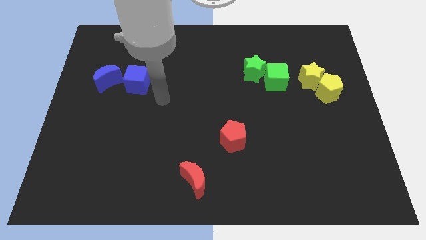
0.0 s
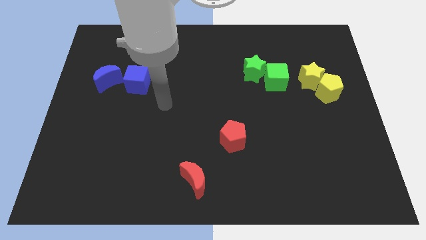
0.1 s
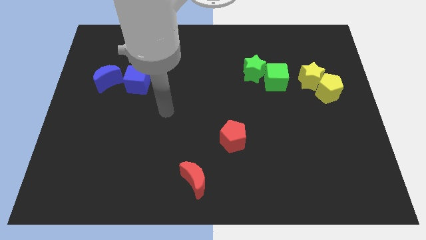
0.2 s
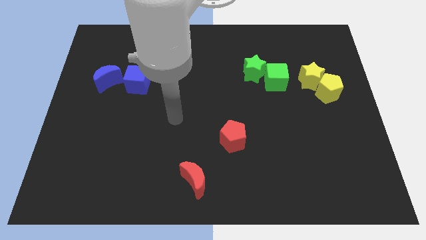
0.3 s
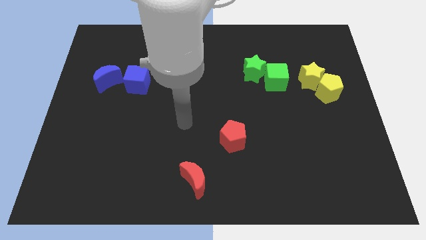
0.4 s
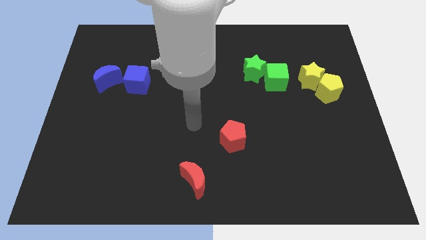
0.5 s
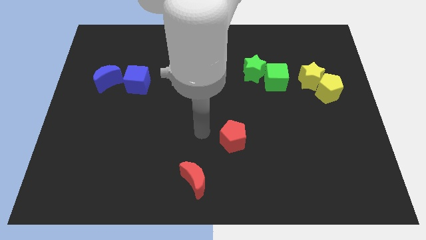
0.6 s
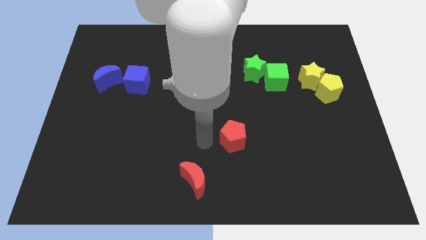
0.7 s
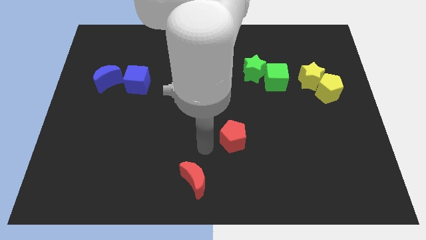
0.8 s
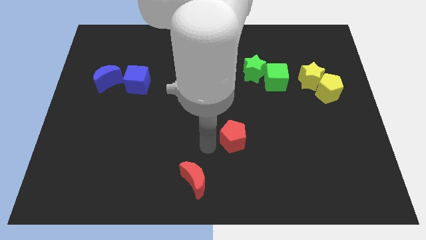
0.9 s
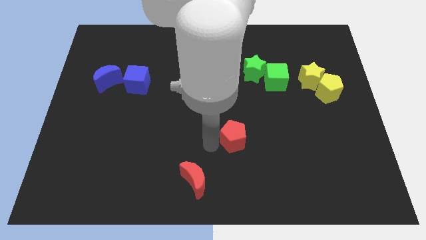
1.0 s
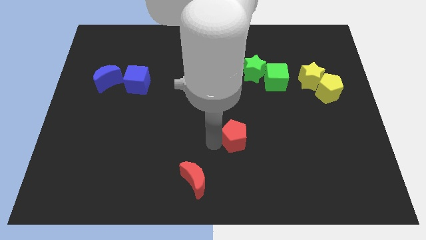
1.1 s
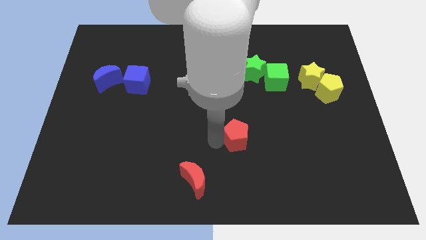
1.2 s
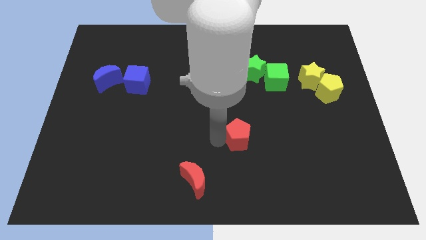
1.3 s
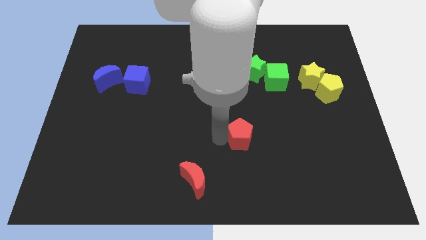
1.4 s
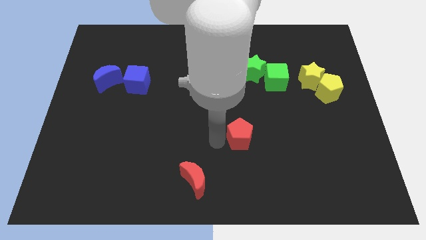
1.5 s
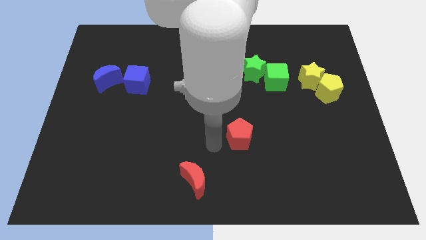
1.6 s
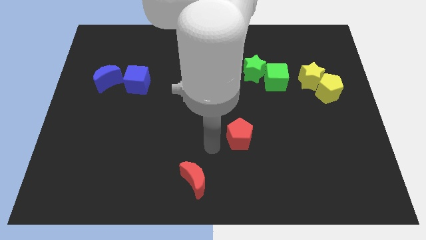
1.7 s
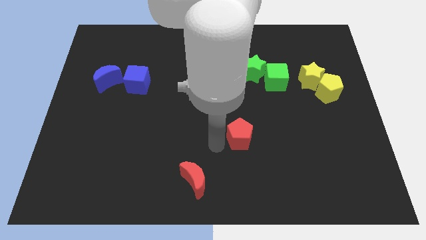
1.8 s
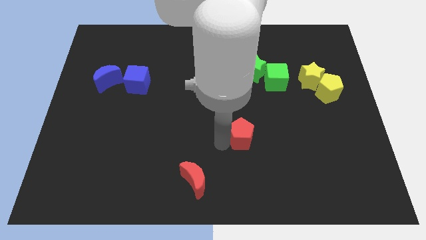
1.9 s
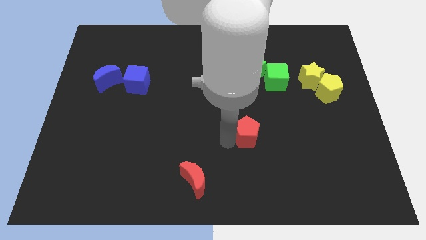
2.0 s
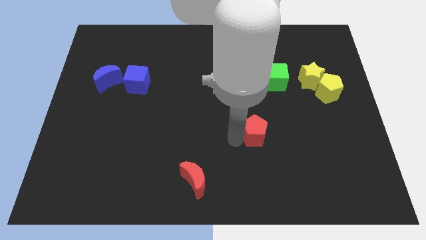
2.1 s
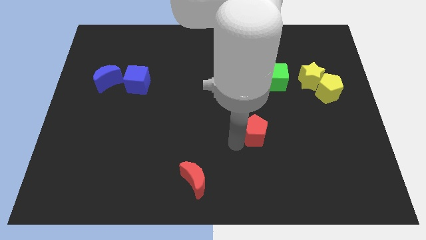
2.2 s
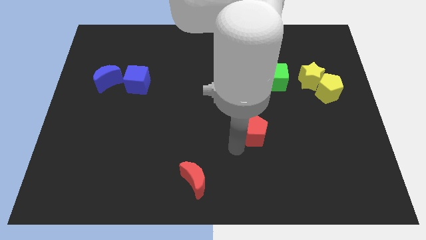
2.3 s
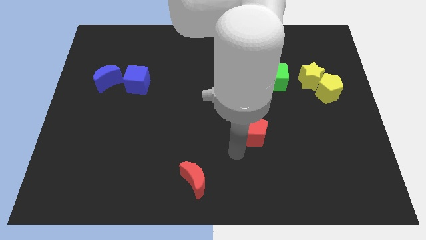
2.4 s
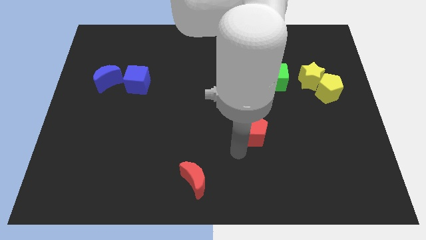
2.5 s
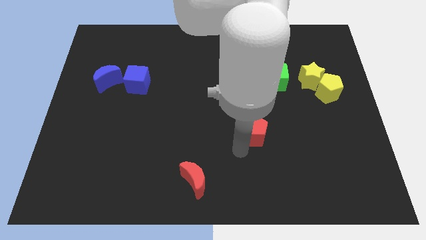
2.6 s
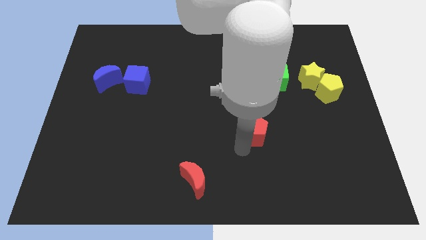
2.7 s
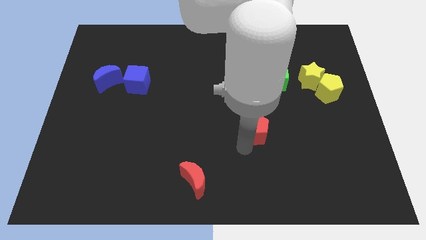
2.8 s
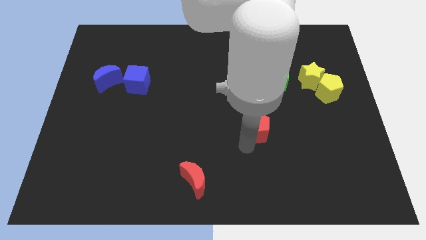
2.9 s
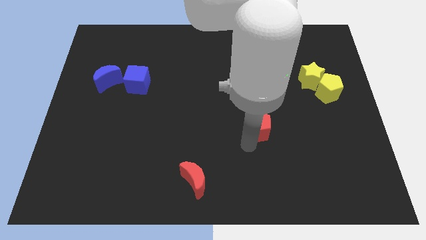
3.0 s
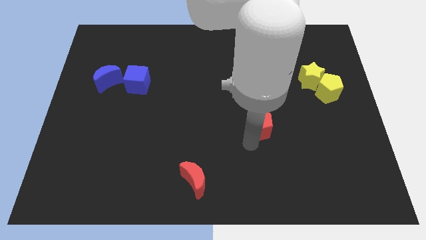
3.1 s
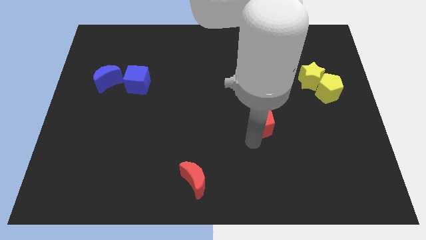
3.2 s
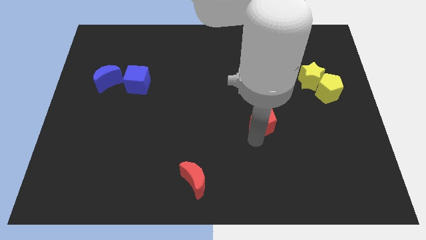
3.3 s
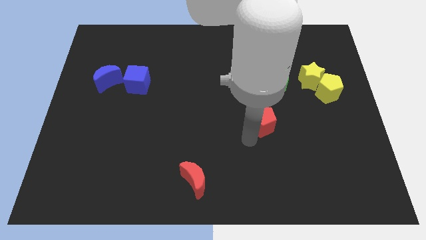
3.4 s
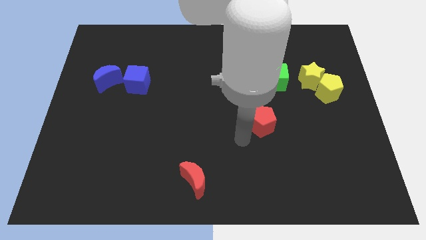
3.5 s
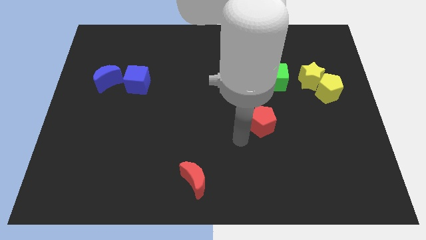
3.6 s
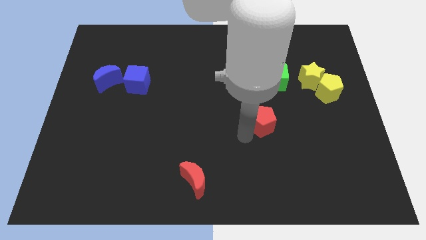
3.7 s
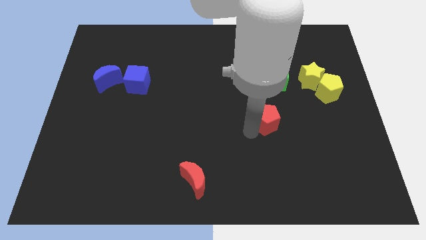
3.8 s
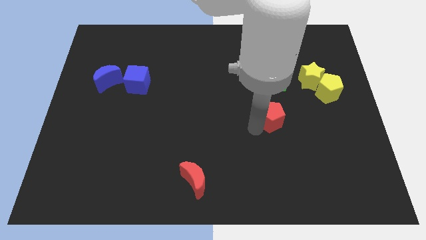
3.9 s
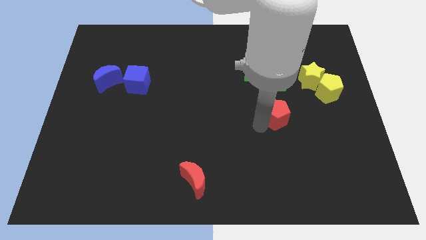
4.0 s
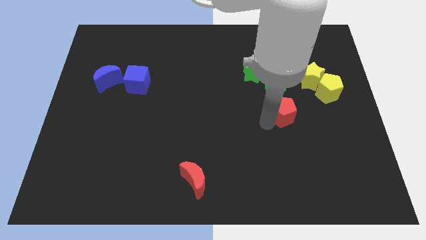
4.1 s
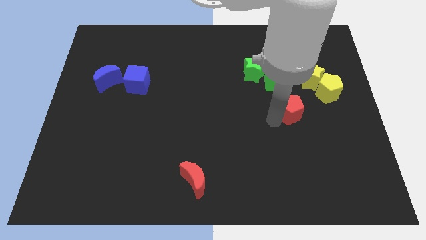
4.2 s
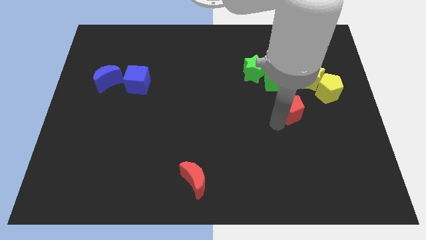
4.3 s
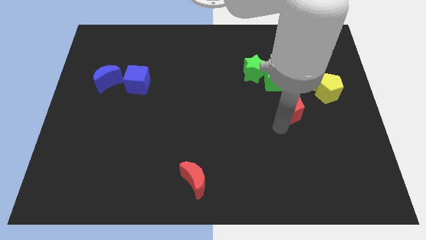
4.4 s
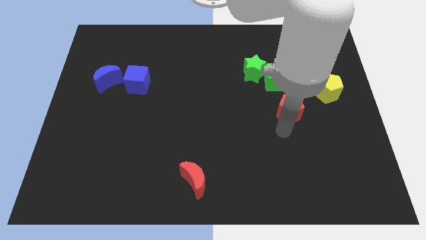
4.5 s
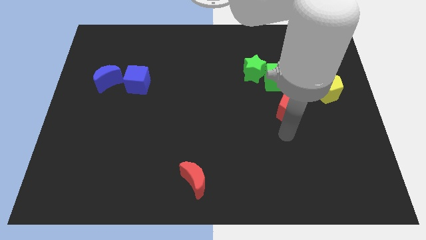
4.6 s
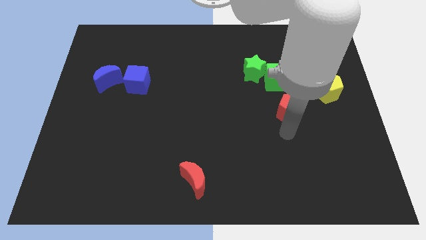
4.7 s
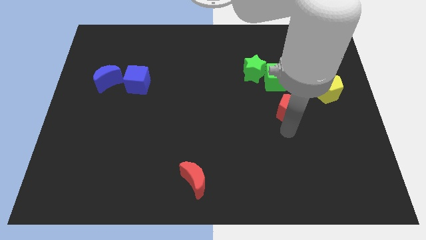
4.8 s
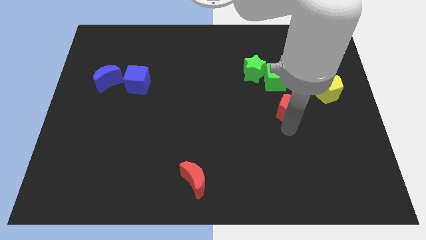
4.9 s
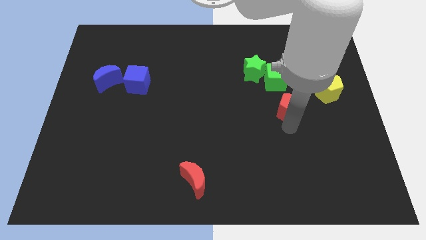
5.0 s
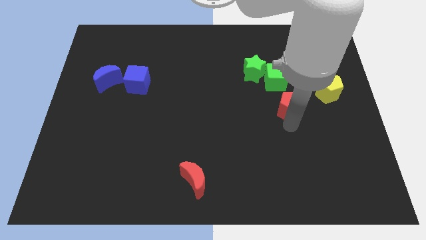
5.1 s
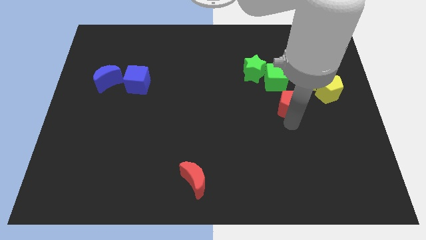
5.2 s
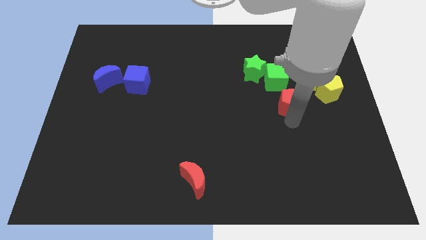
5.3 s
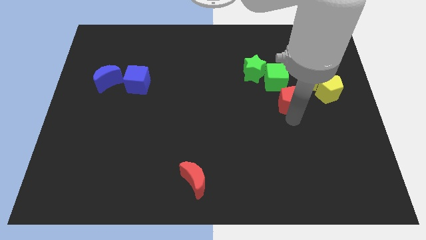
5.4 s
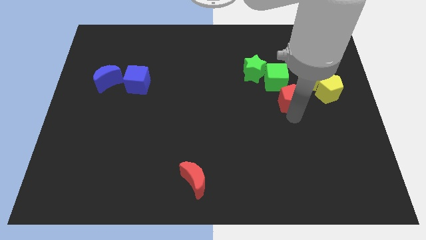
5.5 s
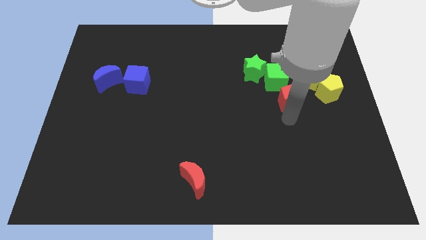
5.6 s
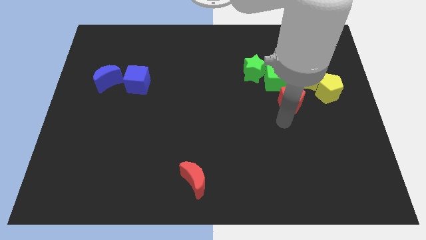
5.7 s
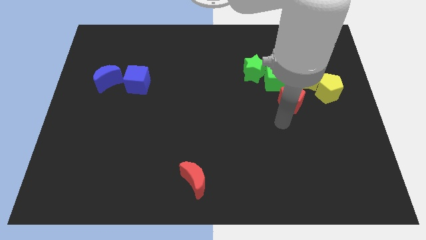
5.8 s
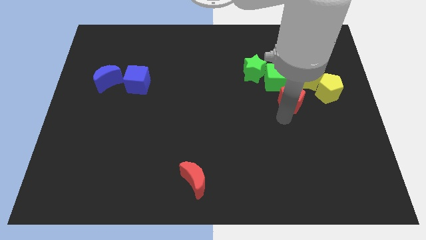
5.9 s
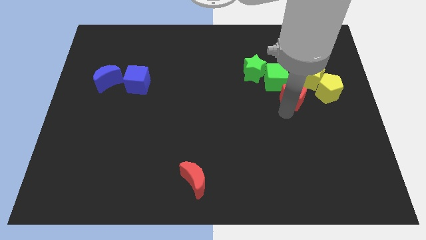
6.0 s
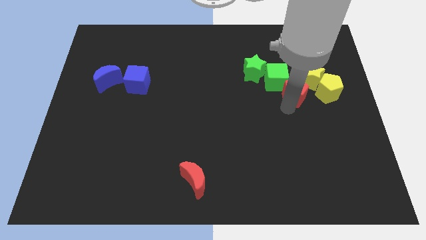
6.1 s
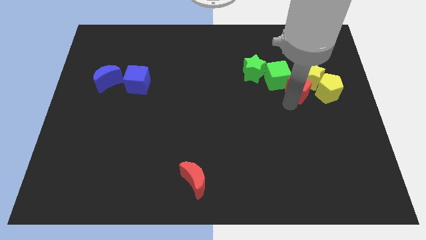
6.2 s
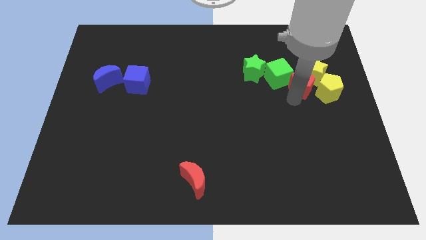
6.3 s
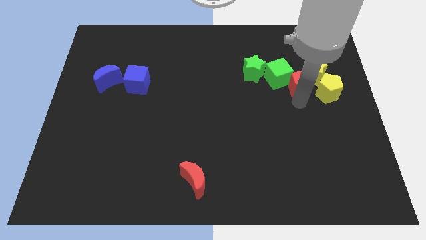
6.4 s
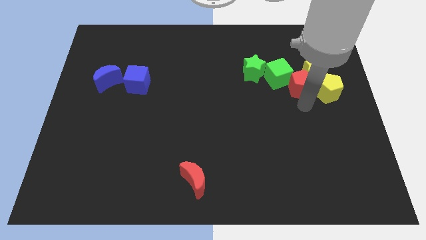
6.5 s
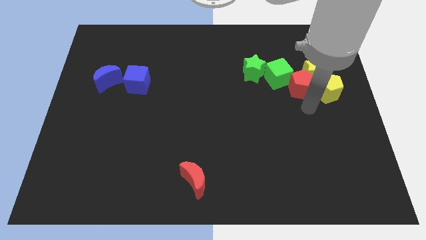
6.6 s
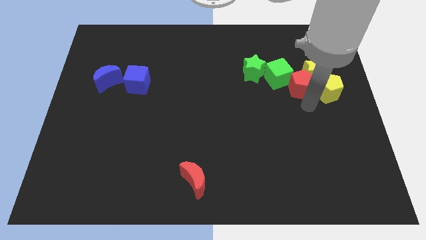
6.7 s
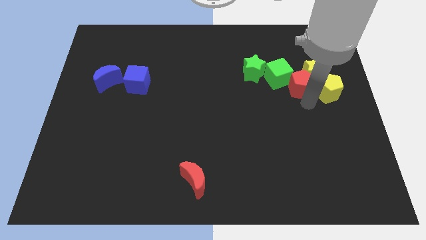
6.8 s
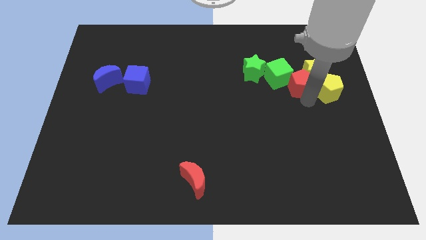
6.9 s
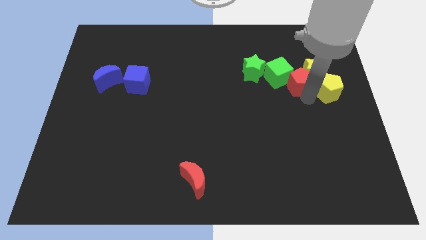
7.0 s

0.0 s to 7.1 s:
slide the red pentagon to the right of the green star

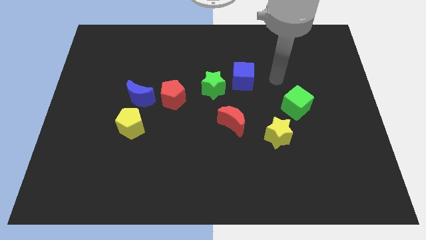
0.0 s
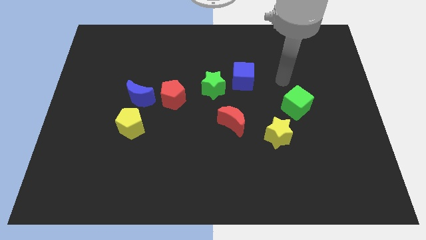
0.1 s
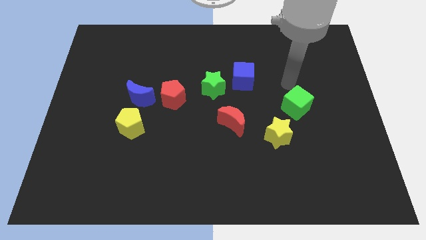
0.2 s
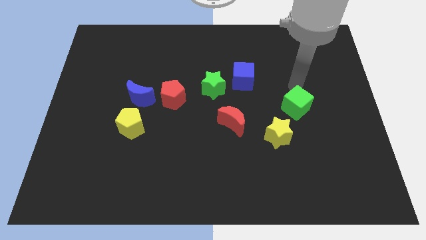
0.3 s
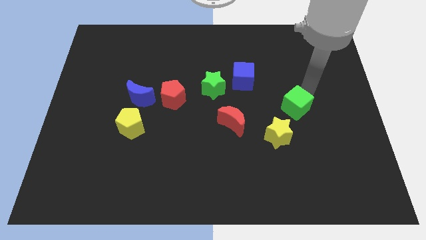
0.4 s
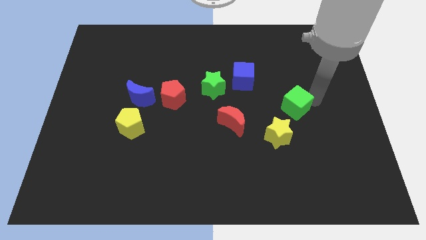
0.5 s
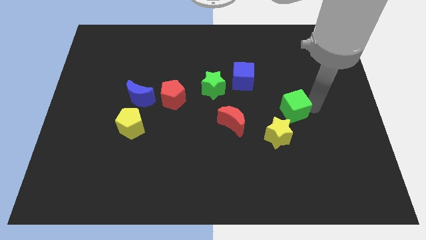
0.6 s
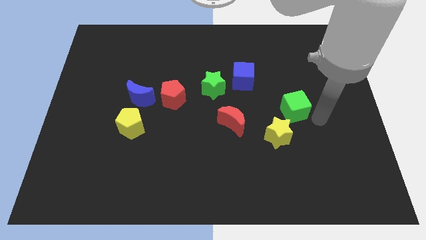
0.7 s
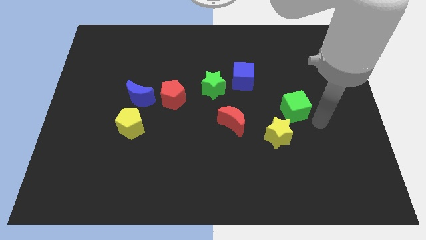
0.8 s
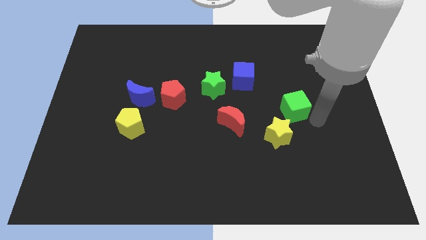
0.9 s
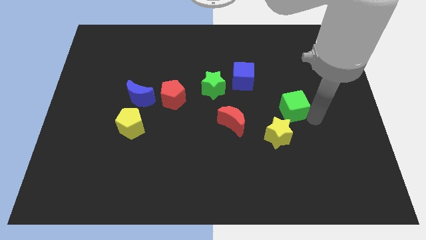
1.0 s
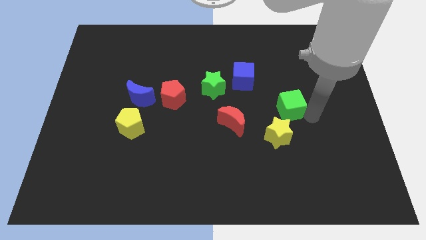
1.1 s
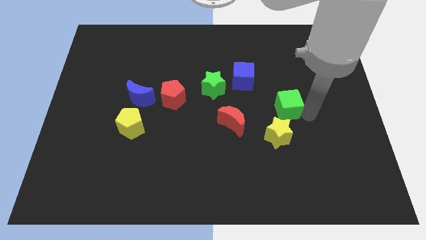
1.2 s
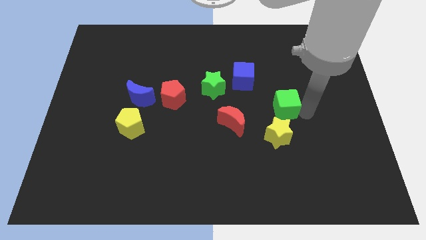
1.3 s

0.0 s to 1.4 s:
put the green cube diagonally down and to the right of the blue cube
